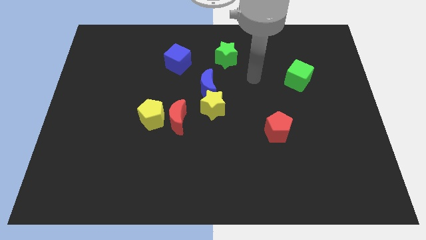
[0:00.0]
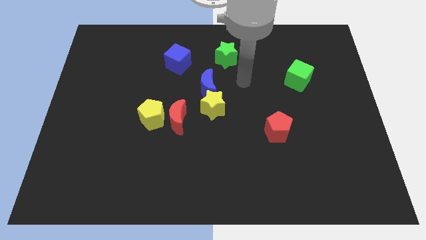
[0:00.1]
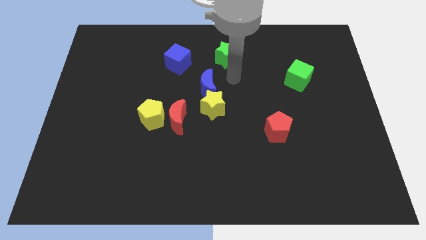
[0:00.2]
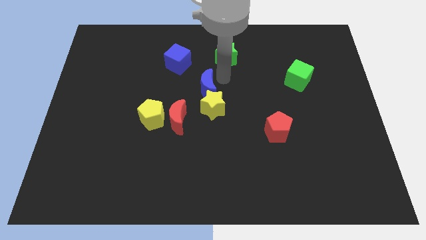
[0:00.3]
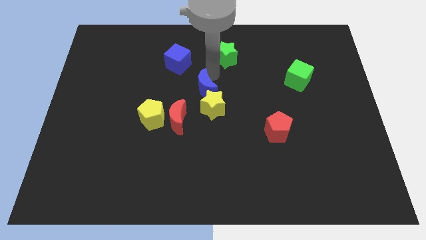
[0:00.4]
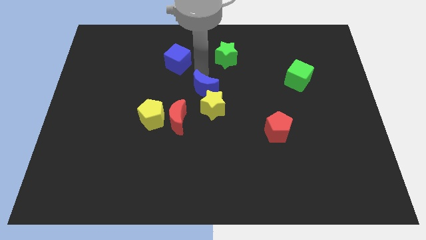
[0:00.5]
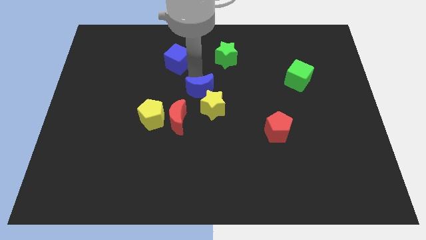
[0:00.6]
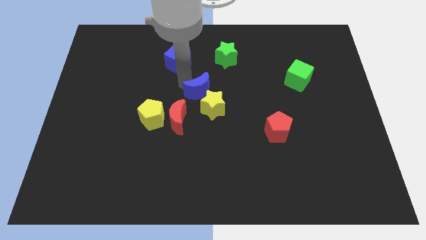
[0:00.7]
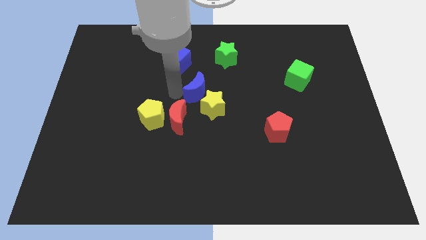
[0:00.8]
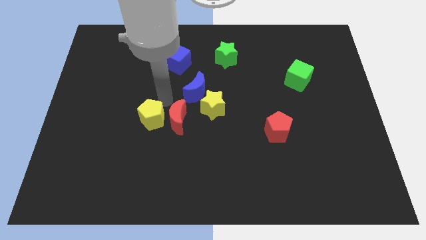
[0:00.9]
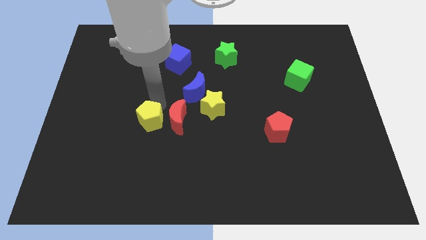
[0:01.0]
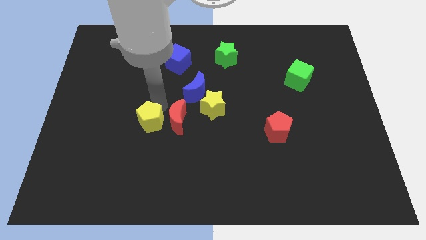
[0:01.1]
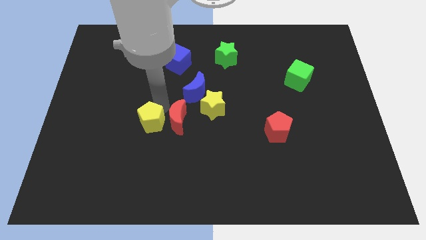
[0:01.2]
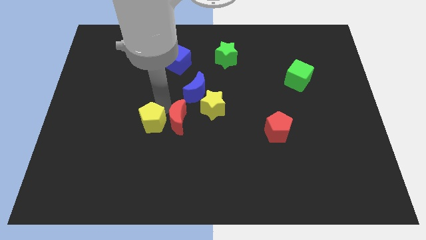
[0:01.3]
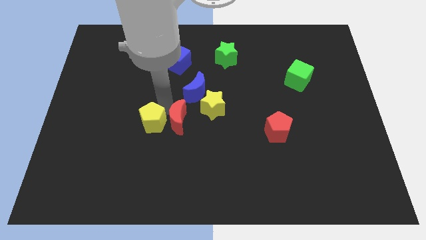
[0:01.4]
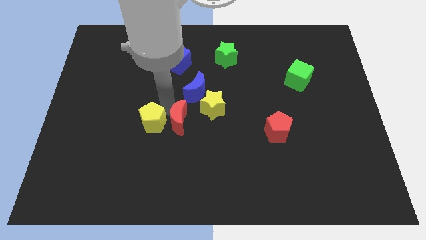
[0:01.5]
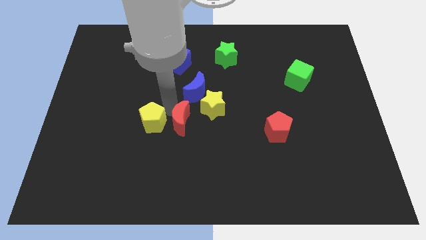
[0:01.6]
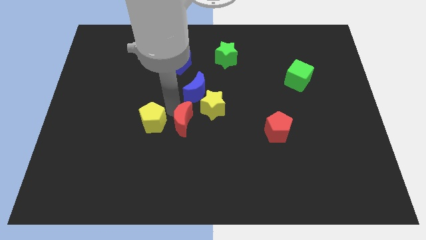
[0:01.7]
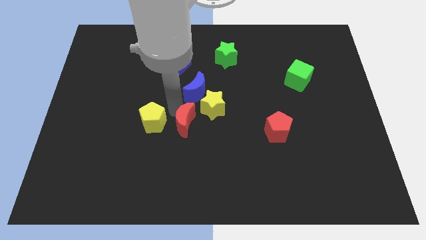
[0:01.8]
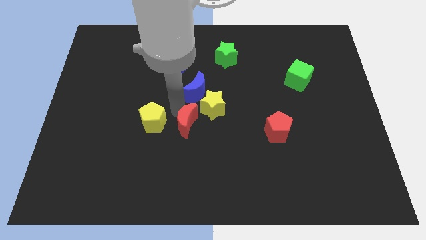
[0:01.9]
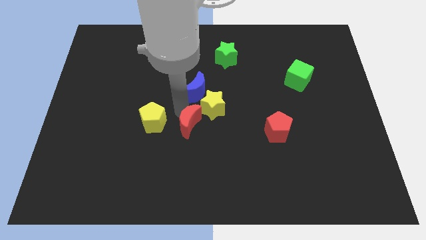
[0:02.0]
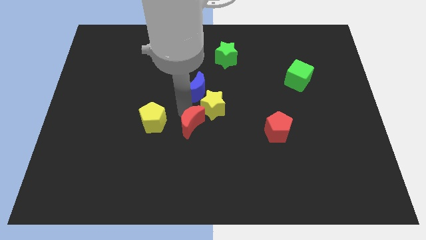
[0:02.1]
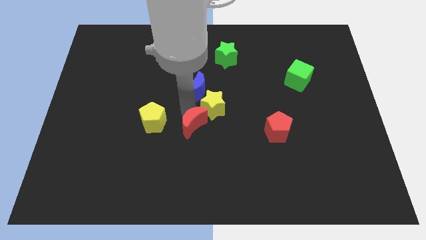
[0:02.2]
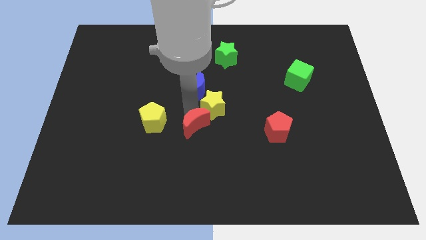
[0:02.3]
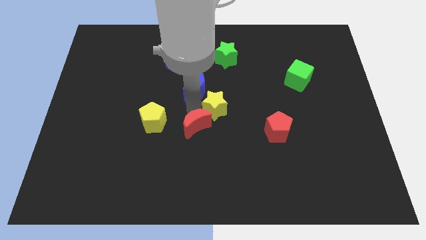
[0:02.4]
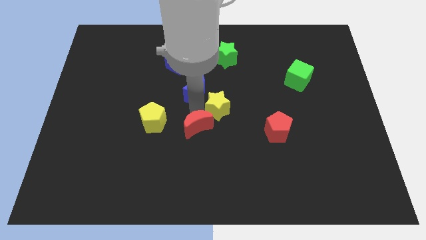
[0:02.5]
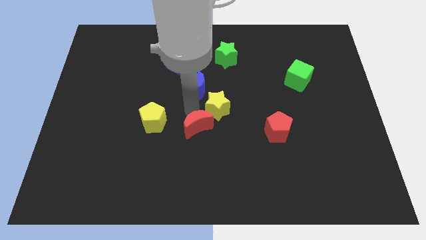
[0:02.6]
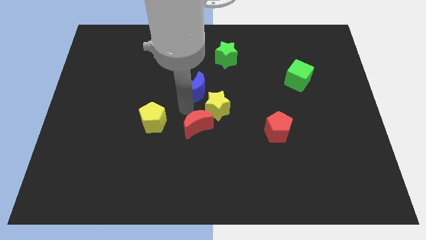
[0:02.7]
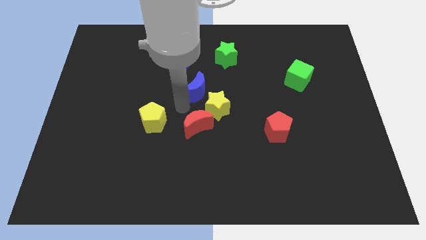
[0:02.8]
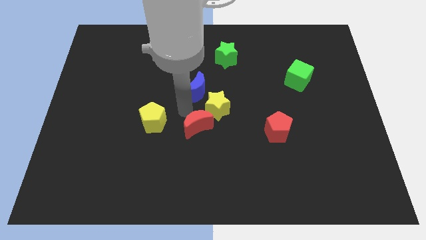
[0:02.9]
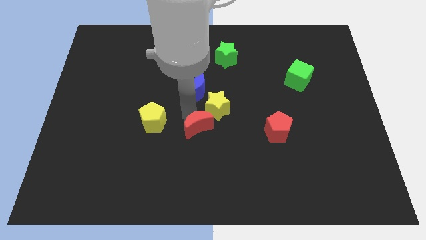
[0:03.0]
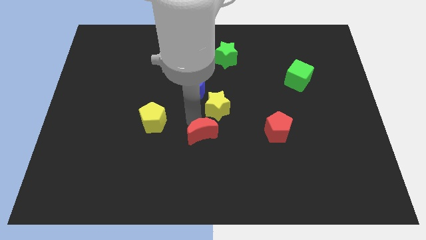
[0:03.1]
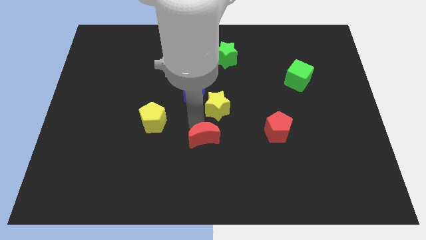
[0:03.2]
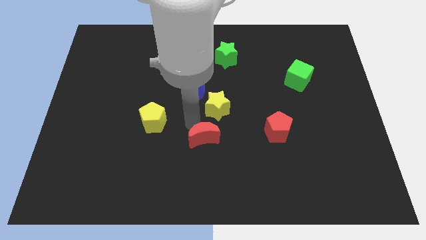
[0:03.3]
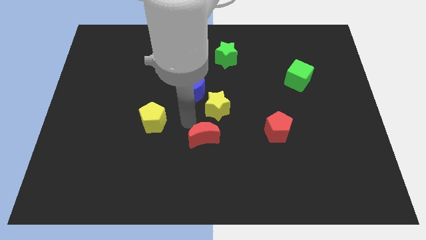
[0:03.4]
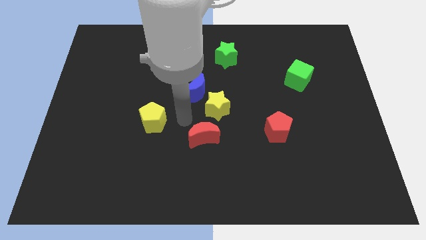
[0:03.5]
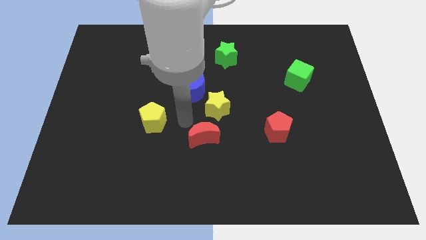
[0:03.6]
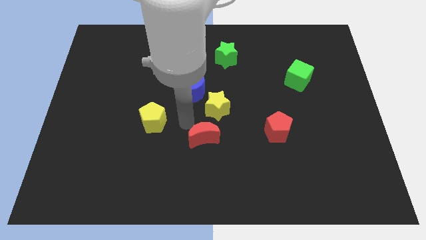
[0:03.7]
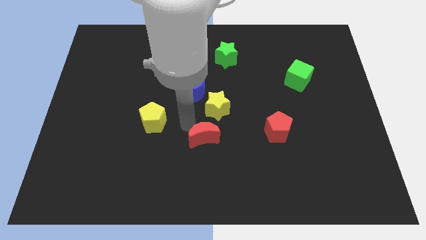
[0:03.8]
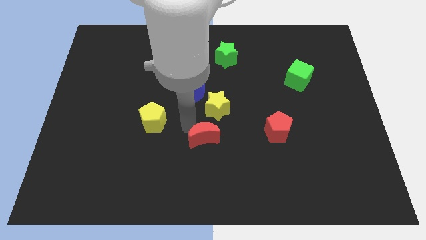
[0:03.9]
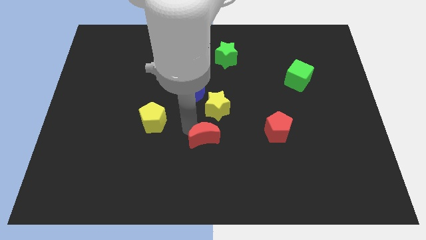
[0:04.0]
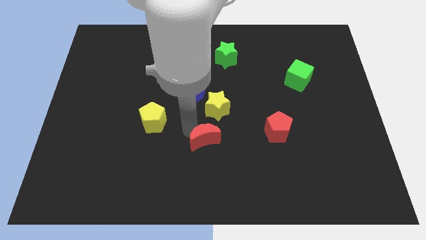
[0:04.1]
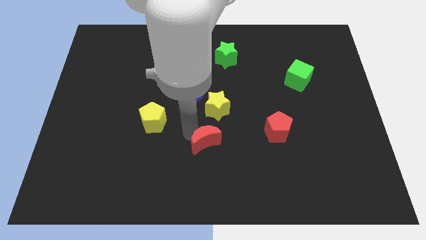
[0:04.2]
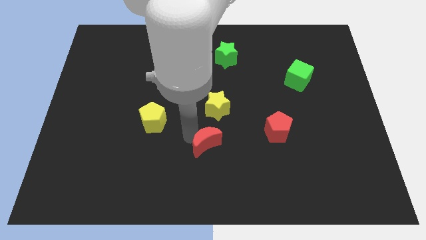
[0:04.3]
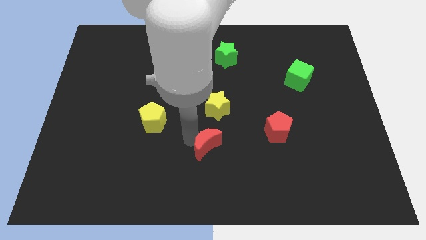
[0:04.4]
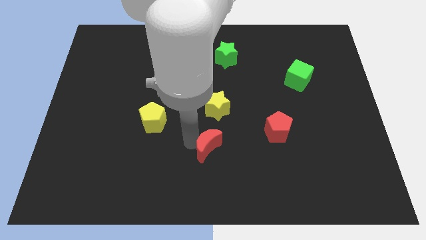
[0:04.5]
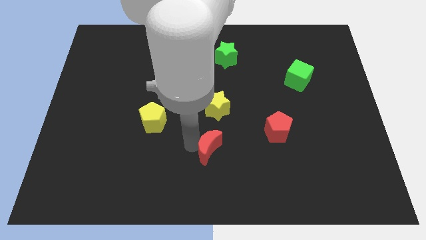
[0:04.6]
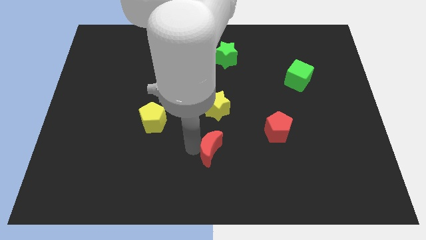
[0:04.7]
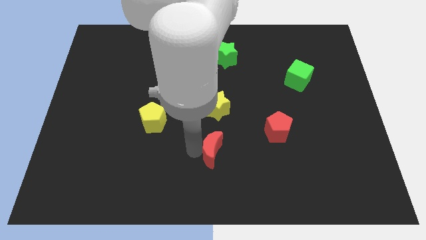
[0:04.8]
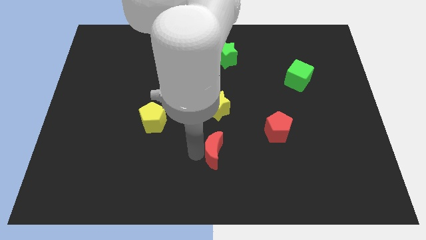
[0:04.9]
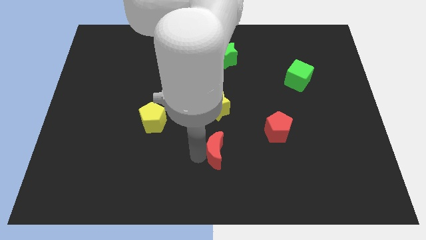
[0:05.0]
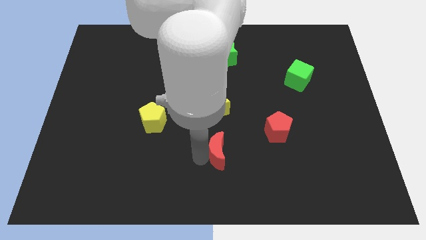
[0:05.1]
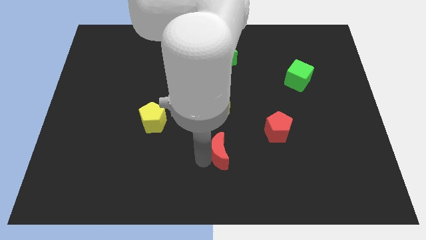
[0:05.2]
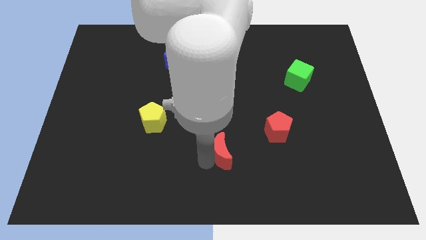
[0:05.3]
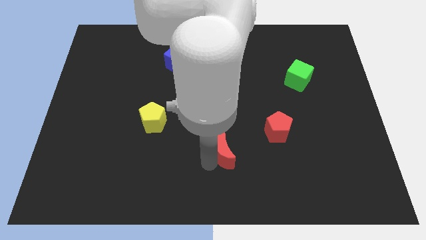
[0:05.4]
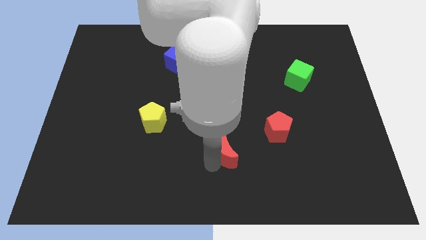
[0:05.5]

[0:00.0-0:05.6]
move the red moon right slightly

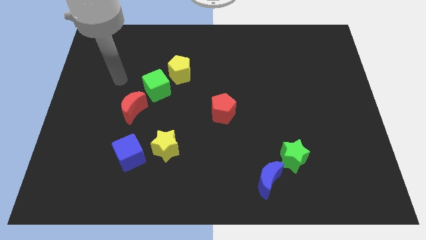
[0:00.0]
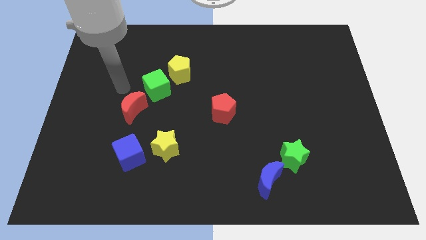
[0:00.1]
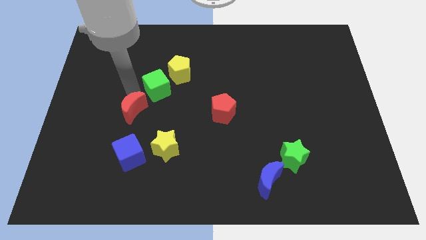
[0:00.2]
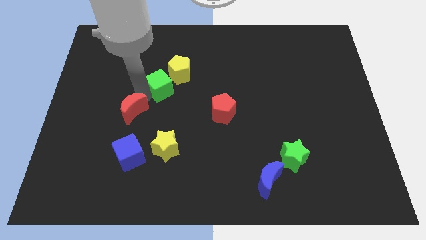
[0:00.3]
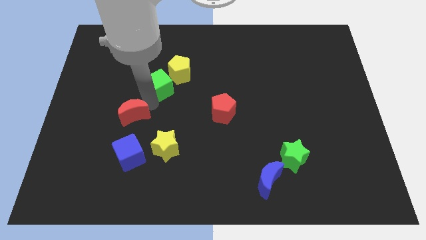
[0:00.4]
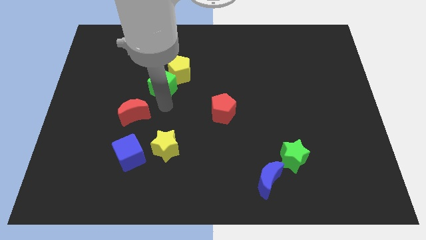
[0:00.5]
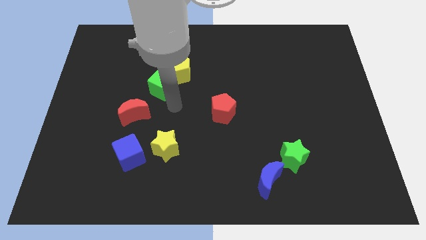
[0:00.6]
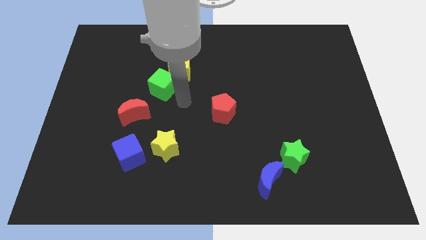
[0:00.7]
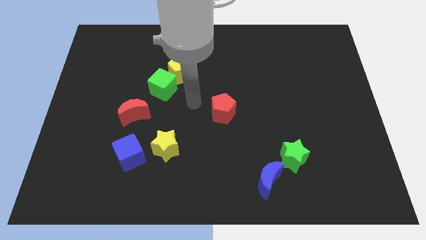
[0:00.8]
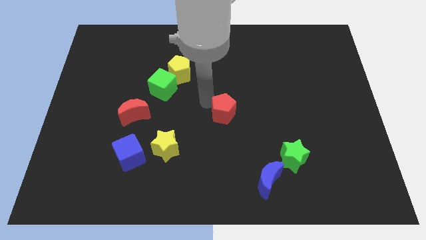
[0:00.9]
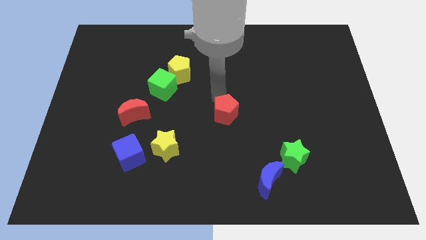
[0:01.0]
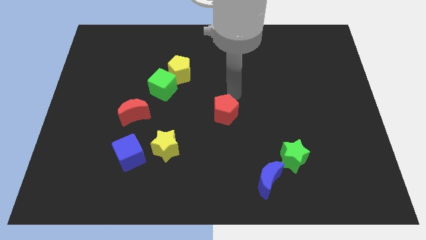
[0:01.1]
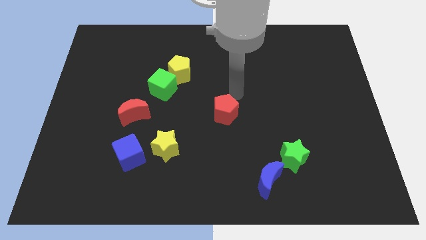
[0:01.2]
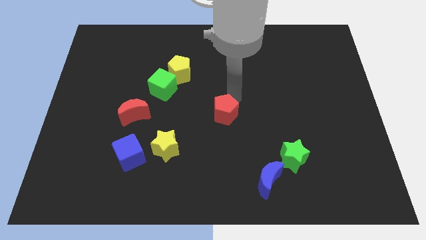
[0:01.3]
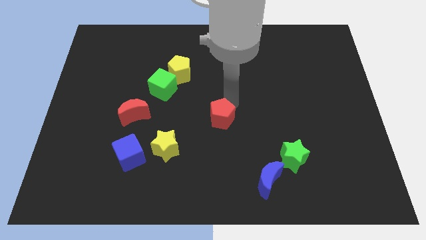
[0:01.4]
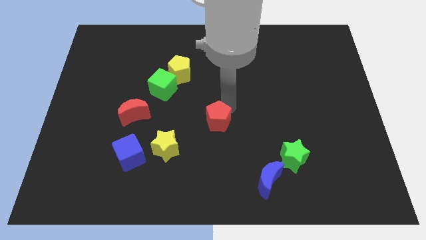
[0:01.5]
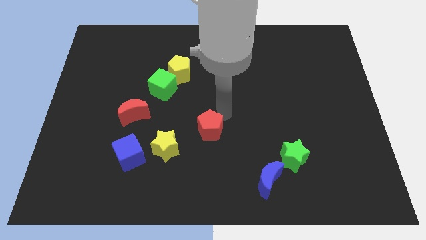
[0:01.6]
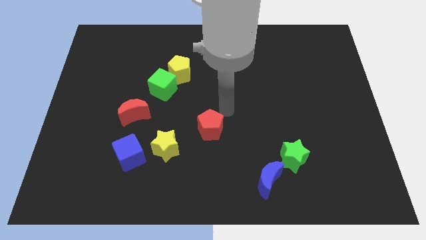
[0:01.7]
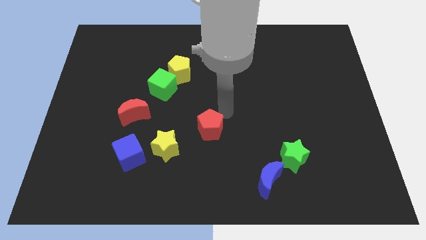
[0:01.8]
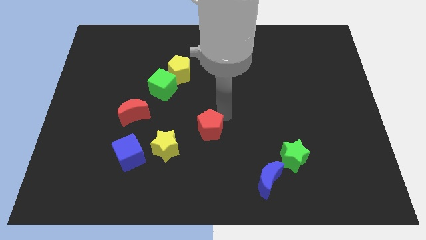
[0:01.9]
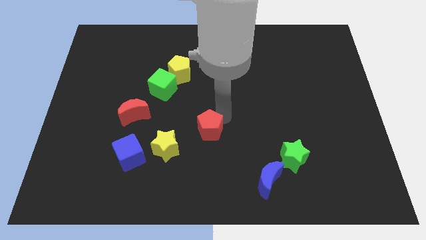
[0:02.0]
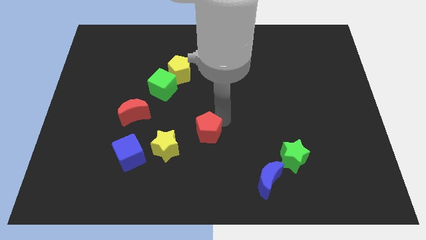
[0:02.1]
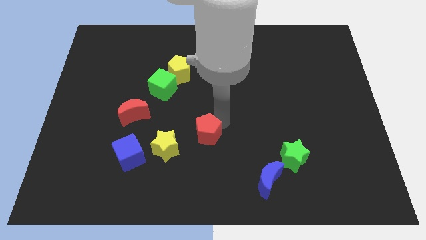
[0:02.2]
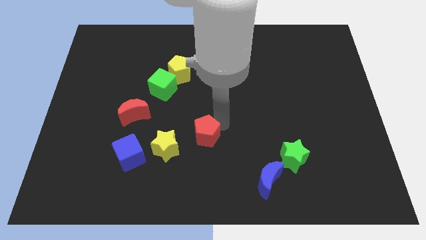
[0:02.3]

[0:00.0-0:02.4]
slightly push the red pentagon diagonally downwards and to the left

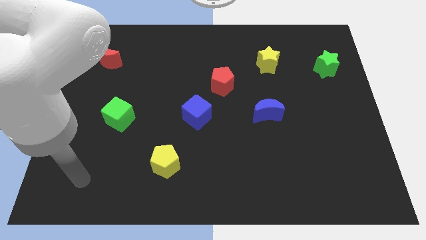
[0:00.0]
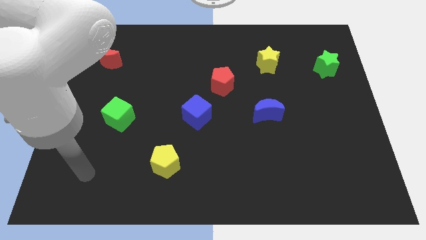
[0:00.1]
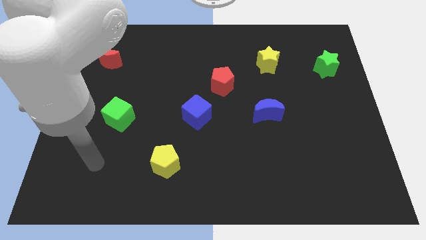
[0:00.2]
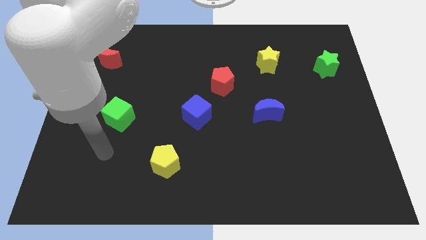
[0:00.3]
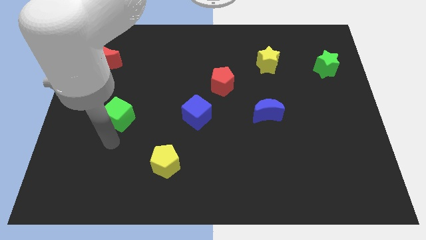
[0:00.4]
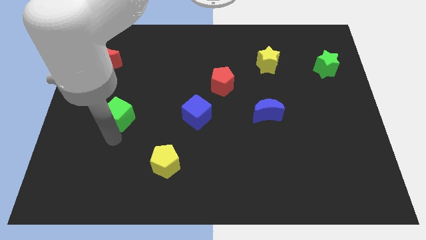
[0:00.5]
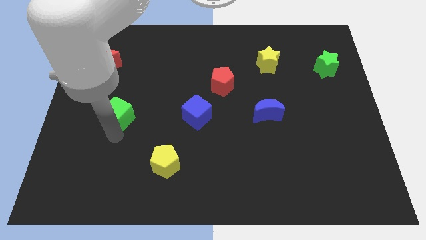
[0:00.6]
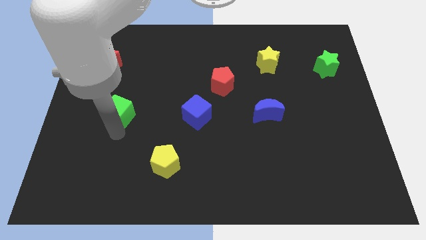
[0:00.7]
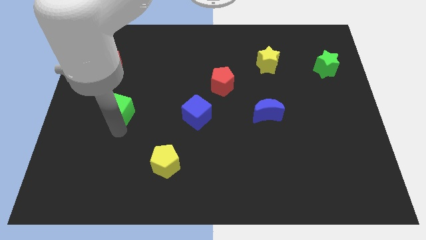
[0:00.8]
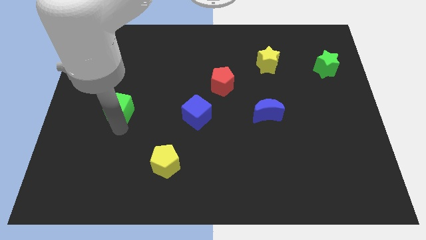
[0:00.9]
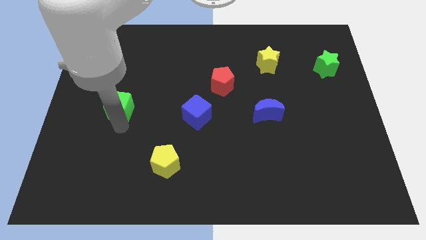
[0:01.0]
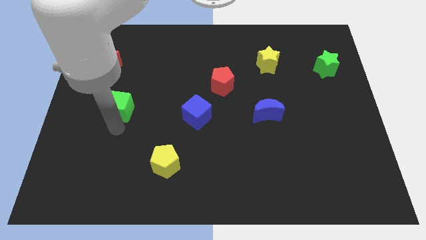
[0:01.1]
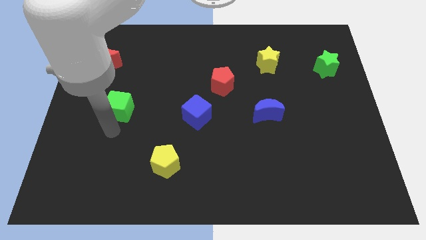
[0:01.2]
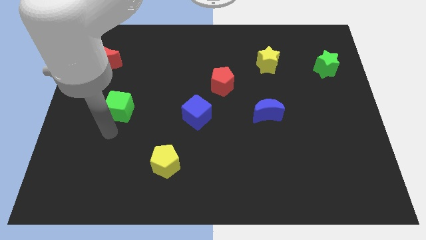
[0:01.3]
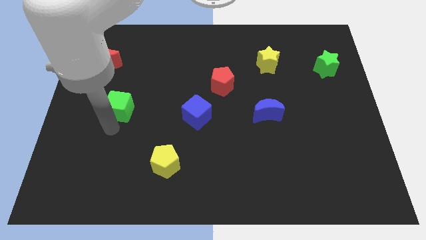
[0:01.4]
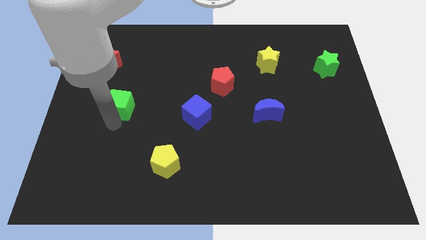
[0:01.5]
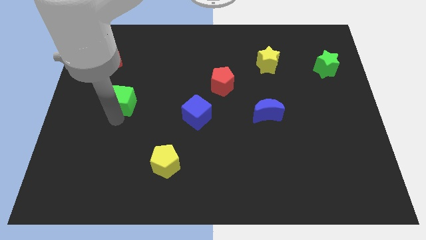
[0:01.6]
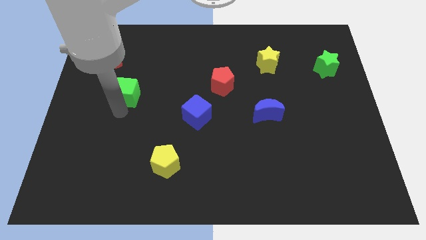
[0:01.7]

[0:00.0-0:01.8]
slightly push the green cube upwards
